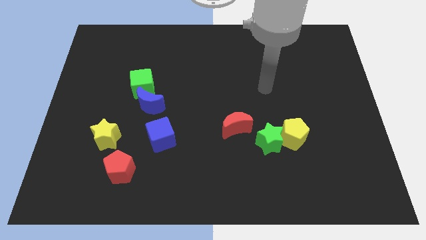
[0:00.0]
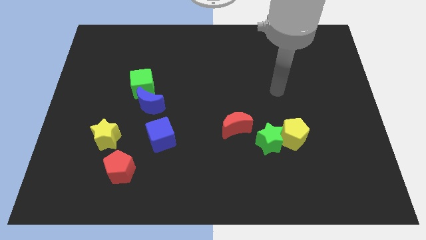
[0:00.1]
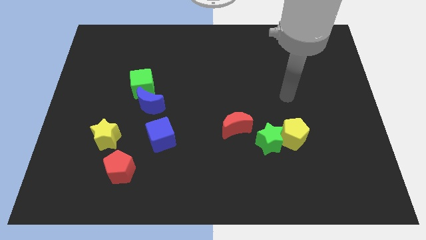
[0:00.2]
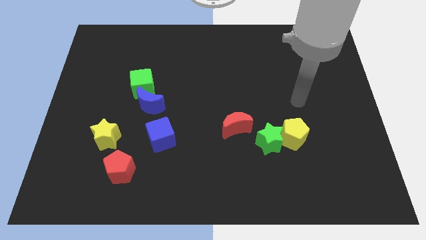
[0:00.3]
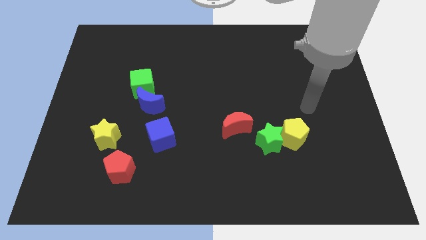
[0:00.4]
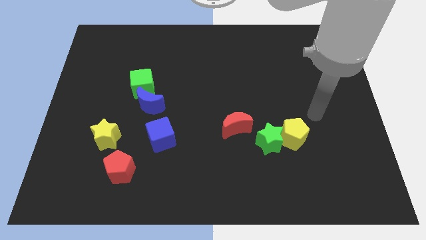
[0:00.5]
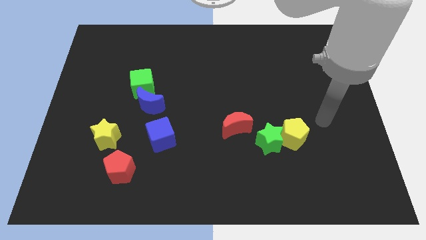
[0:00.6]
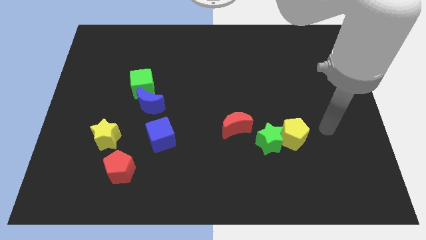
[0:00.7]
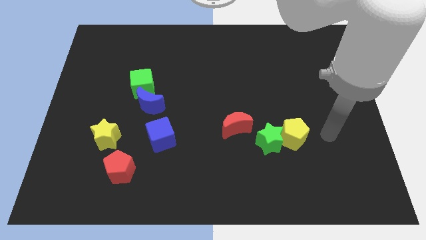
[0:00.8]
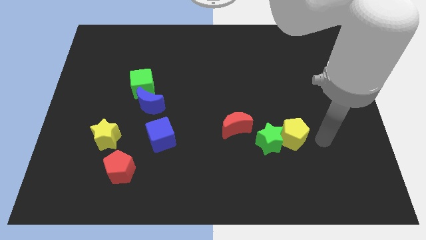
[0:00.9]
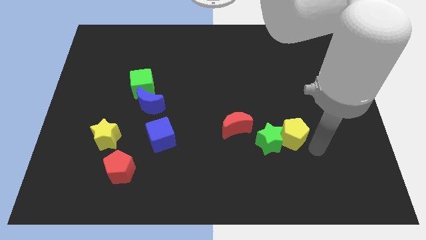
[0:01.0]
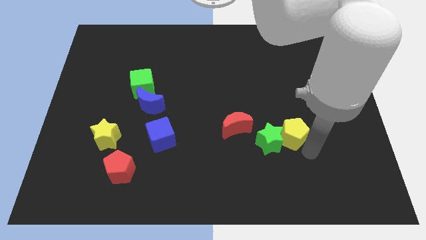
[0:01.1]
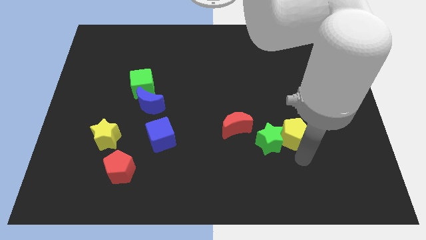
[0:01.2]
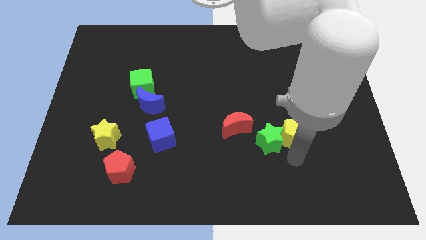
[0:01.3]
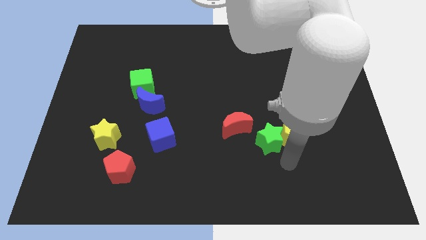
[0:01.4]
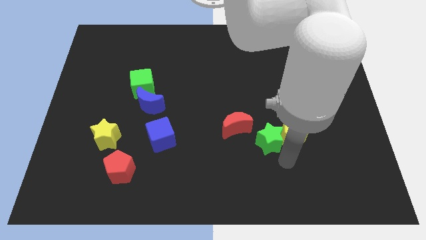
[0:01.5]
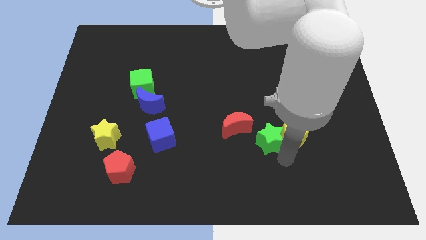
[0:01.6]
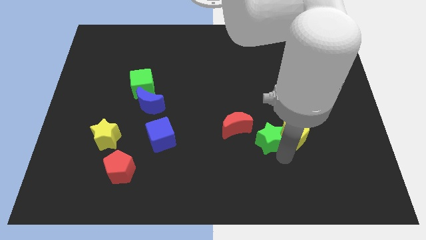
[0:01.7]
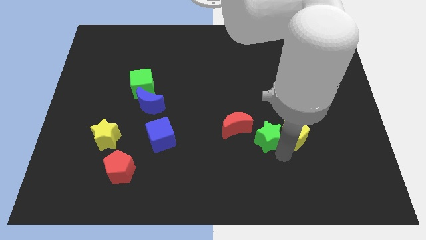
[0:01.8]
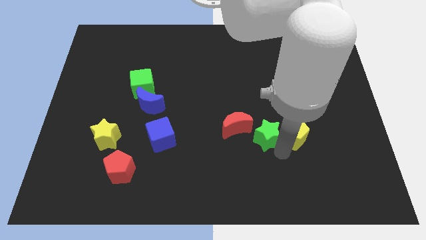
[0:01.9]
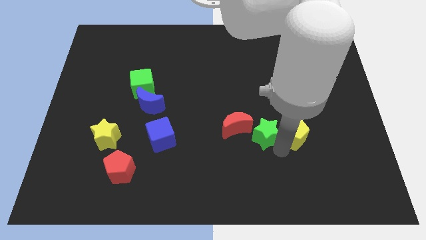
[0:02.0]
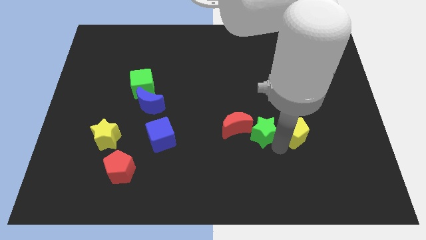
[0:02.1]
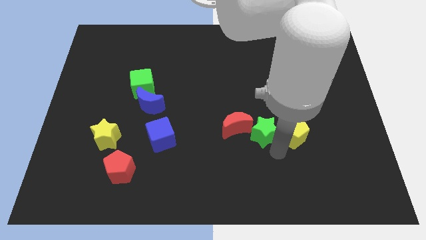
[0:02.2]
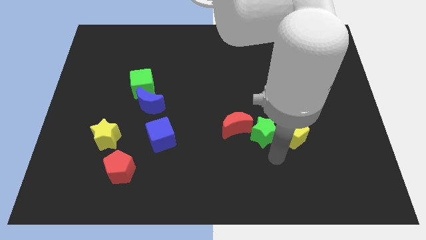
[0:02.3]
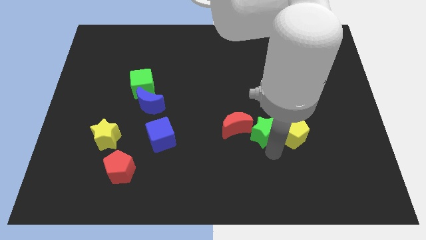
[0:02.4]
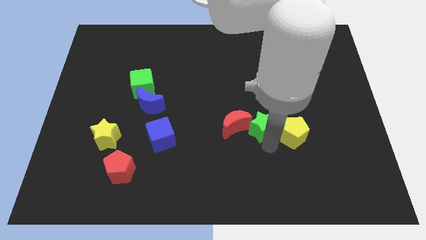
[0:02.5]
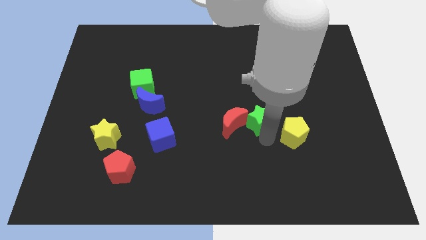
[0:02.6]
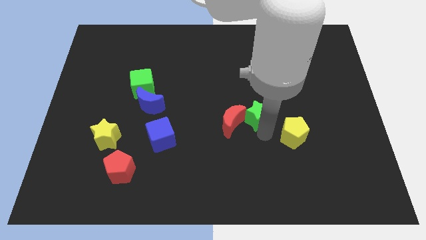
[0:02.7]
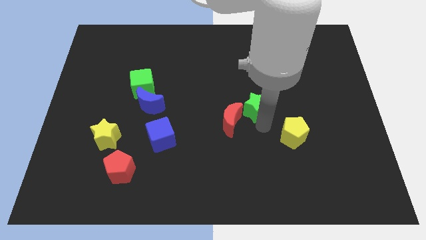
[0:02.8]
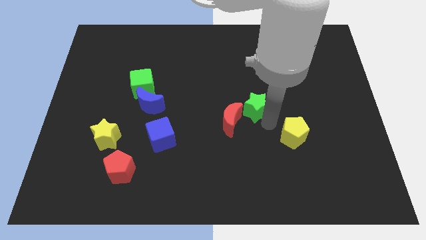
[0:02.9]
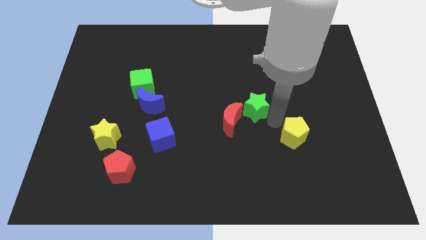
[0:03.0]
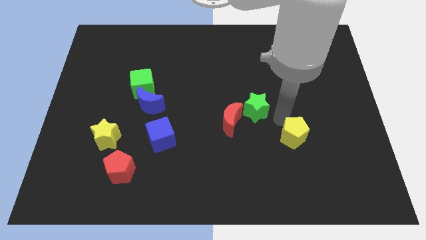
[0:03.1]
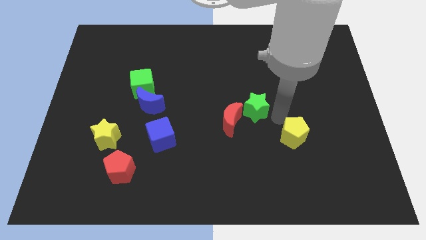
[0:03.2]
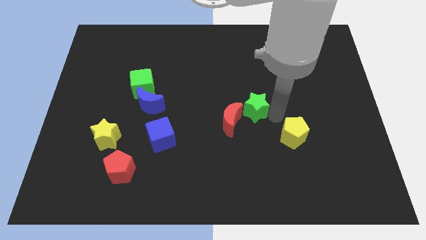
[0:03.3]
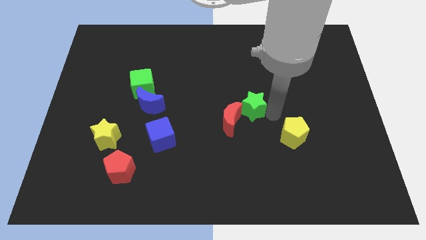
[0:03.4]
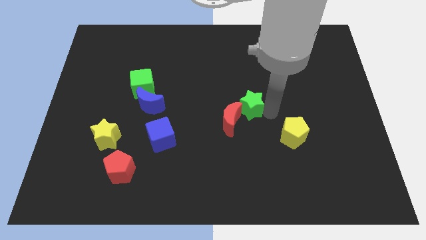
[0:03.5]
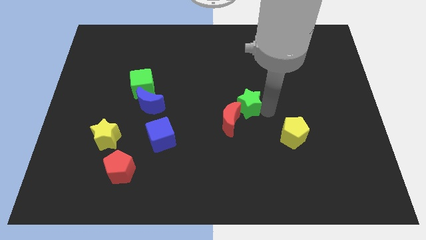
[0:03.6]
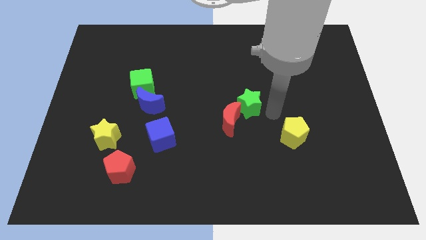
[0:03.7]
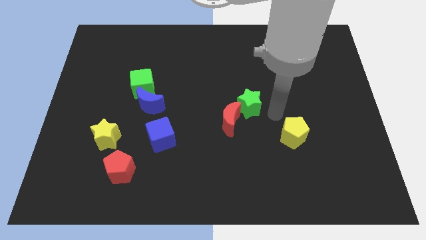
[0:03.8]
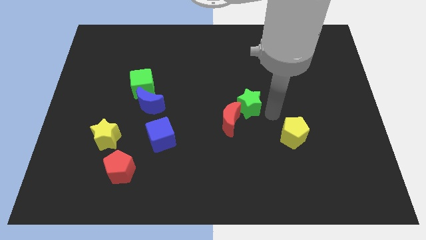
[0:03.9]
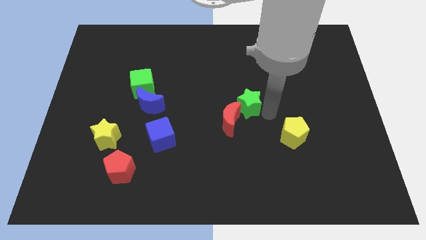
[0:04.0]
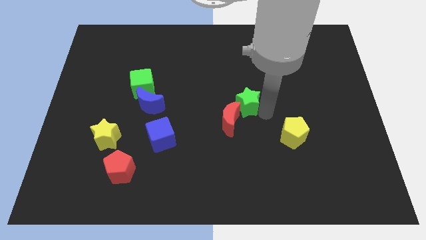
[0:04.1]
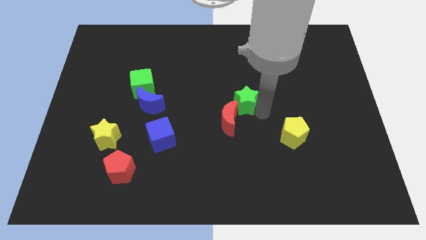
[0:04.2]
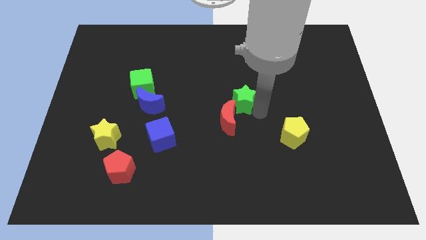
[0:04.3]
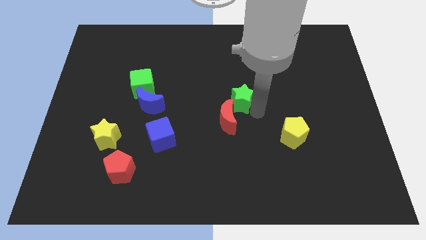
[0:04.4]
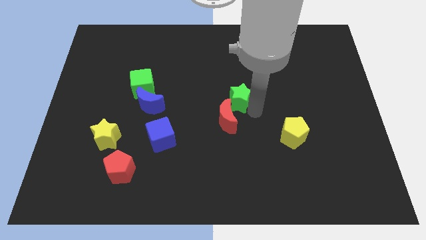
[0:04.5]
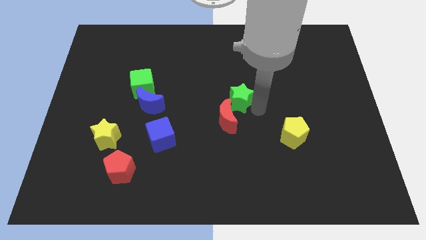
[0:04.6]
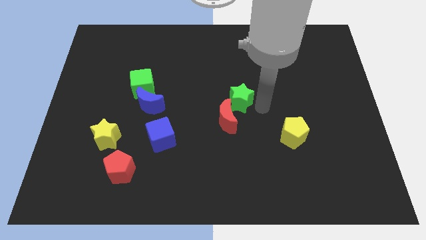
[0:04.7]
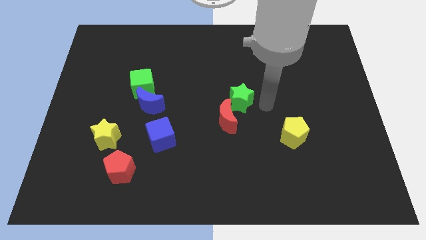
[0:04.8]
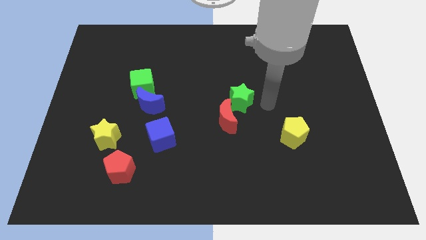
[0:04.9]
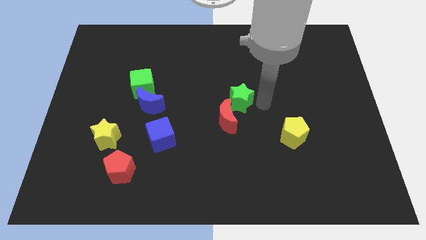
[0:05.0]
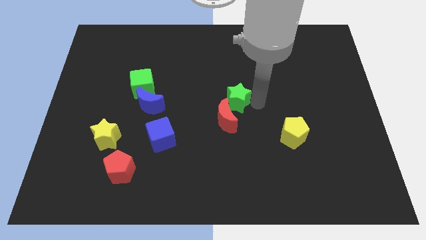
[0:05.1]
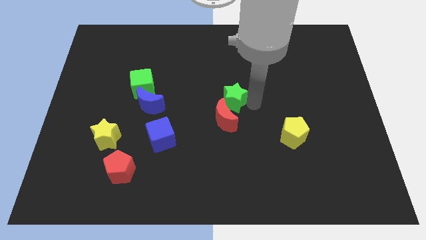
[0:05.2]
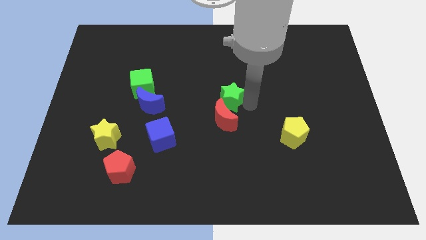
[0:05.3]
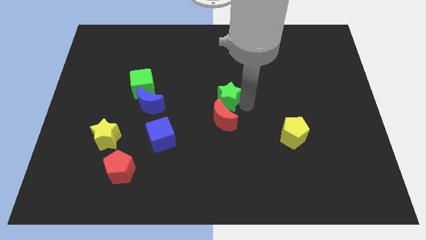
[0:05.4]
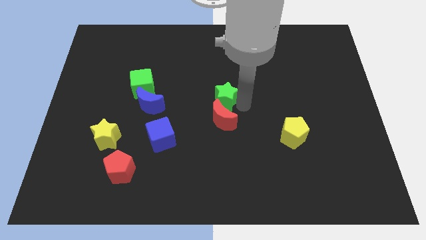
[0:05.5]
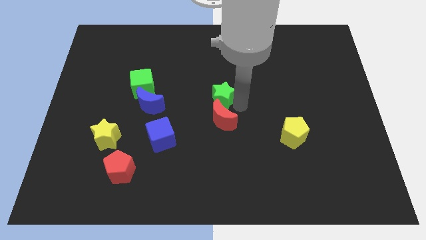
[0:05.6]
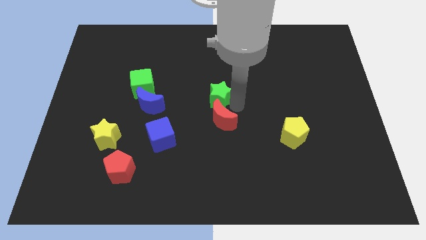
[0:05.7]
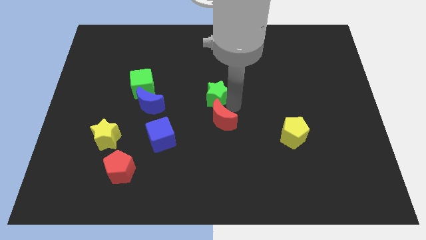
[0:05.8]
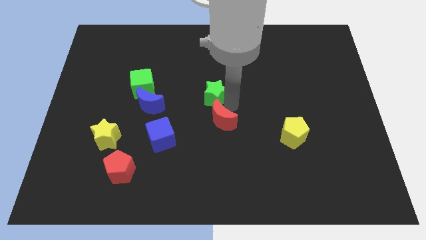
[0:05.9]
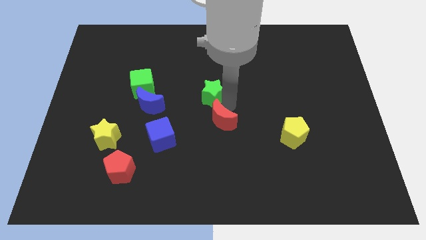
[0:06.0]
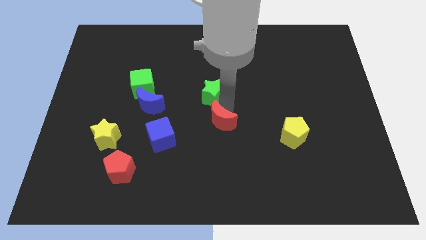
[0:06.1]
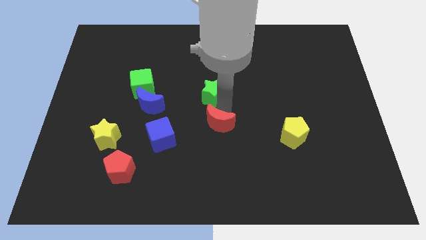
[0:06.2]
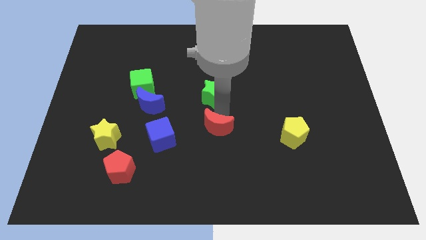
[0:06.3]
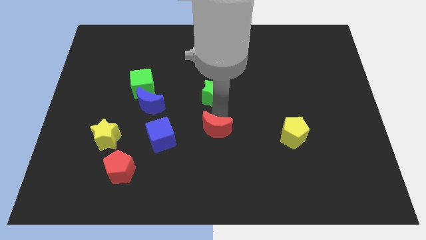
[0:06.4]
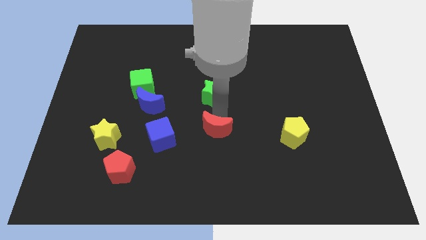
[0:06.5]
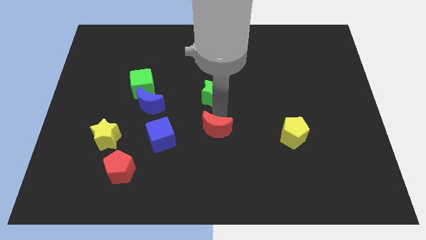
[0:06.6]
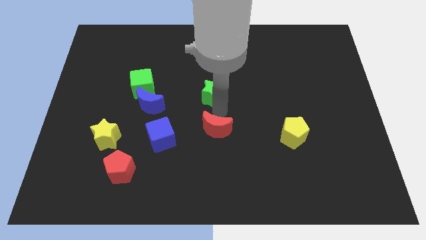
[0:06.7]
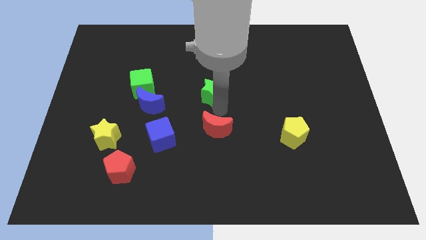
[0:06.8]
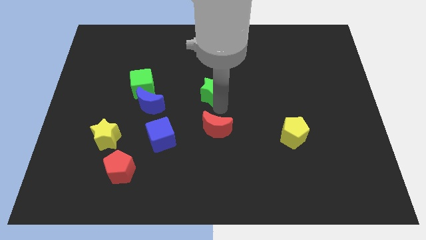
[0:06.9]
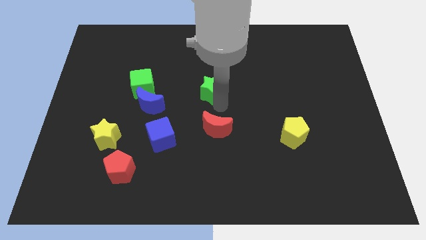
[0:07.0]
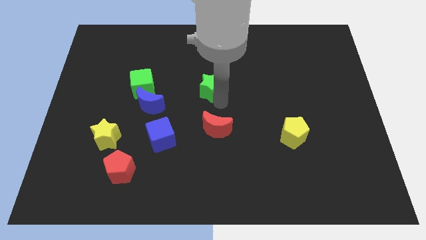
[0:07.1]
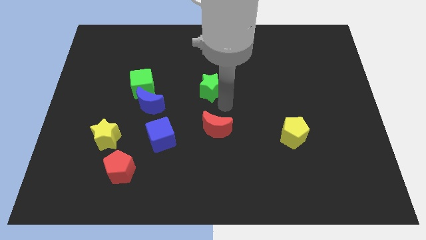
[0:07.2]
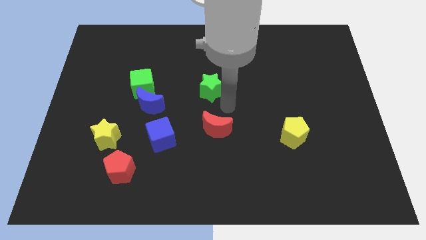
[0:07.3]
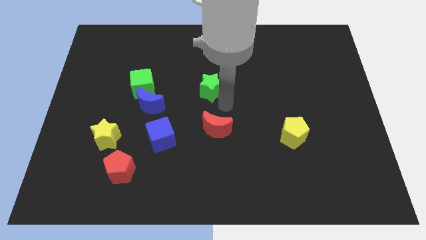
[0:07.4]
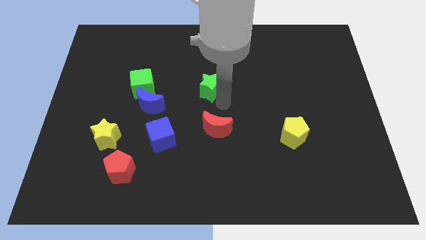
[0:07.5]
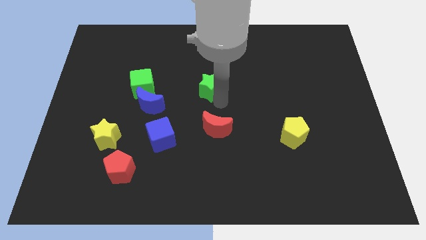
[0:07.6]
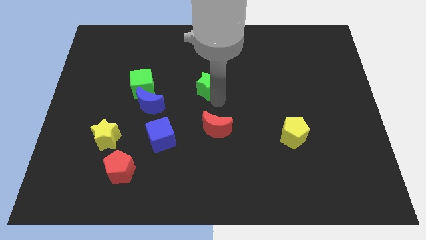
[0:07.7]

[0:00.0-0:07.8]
slide the green star upwards and to the left

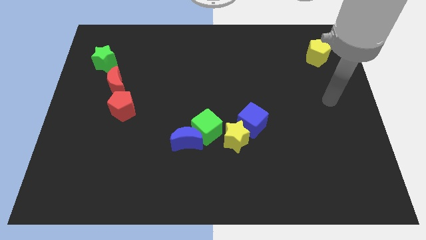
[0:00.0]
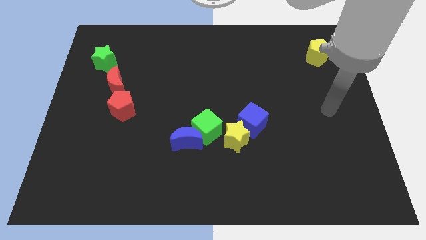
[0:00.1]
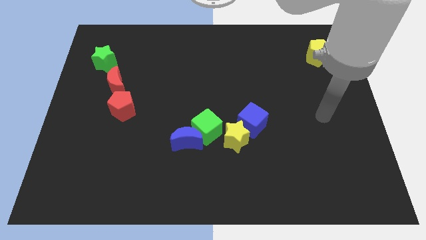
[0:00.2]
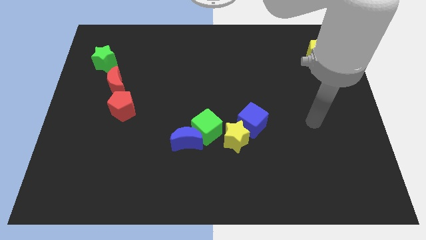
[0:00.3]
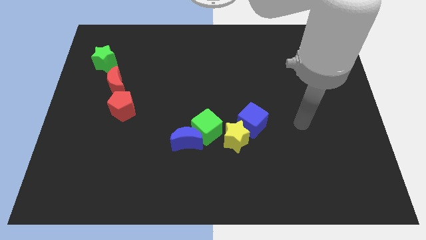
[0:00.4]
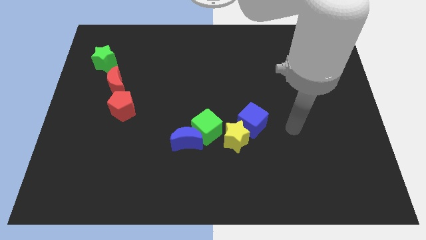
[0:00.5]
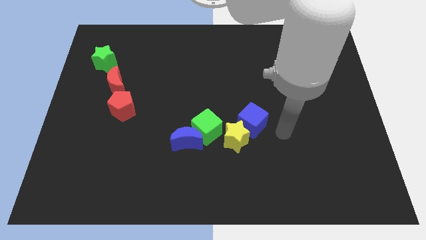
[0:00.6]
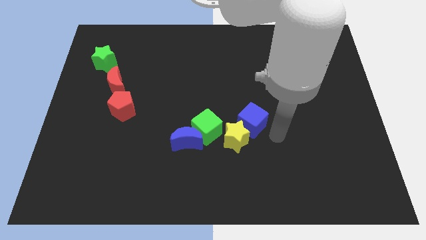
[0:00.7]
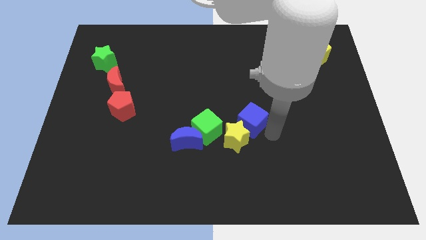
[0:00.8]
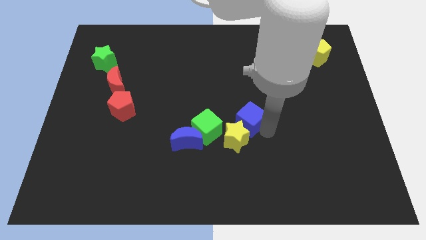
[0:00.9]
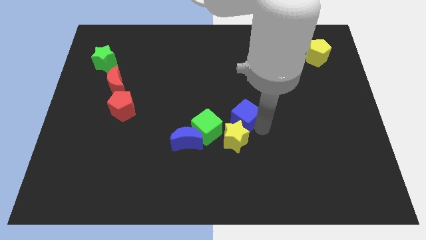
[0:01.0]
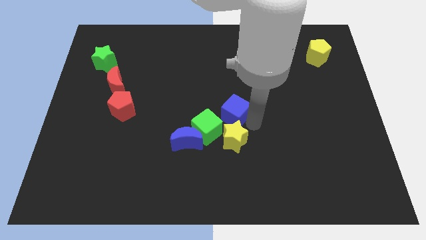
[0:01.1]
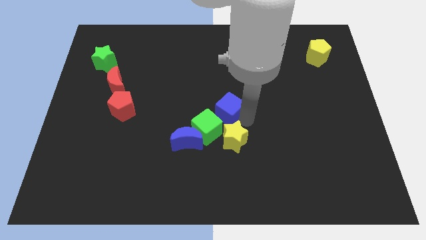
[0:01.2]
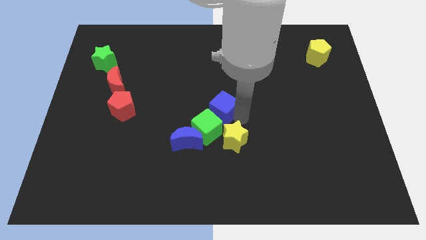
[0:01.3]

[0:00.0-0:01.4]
slide the blue cube a little diagonally up and left
